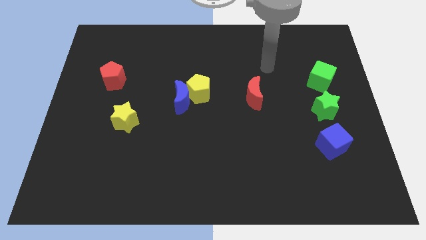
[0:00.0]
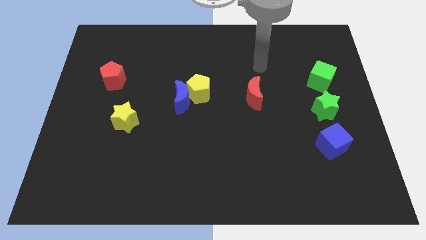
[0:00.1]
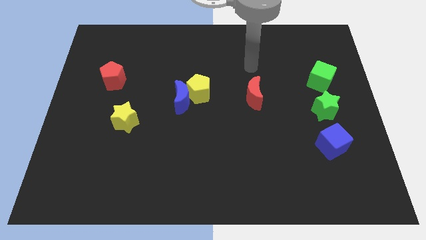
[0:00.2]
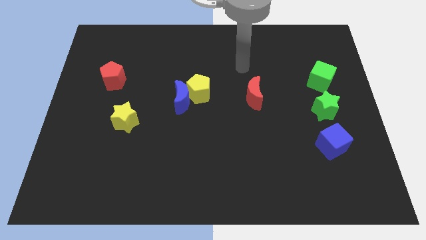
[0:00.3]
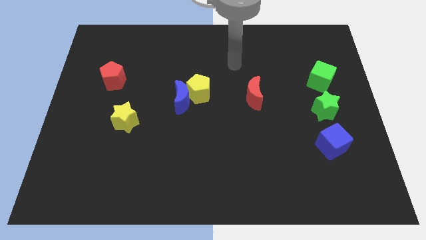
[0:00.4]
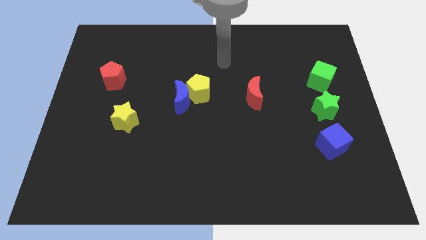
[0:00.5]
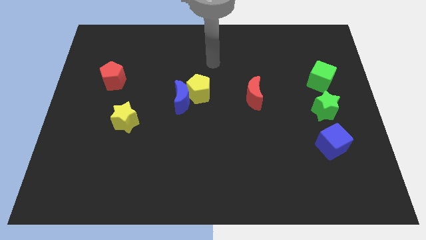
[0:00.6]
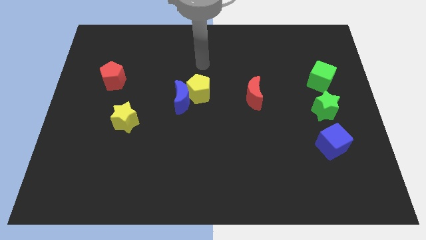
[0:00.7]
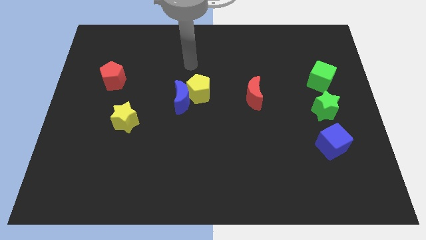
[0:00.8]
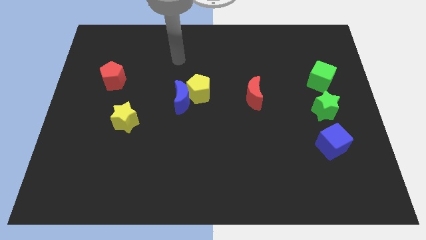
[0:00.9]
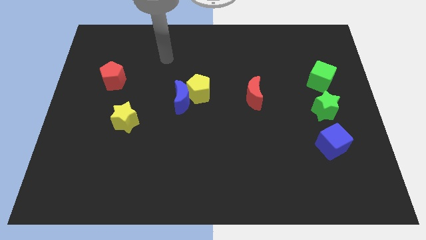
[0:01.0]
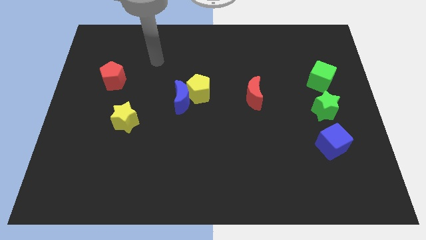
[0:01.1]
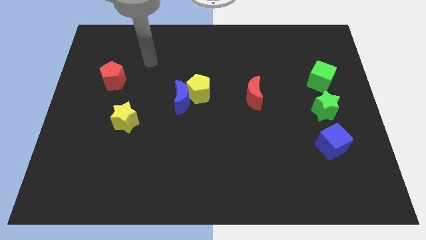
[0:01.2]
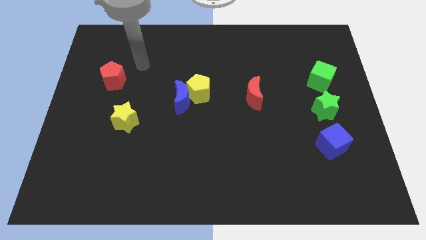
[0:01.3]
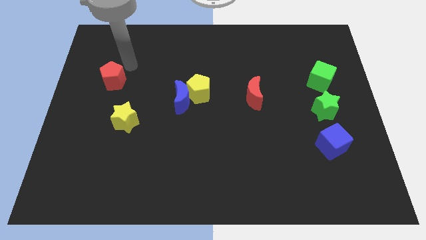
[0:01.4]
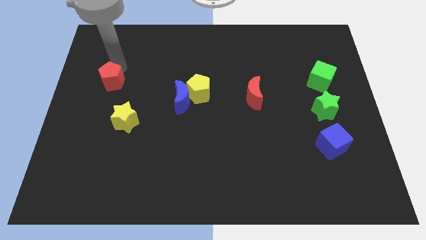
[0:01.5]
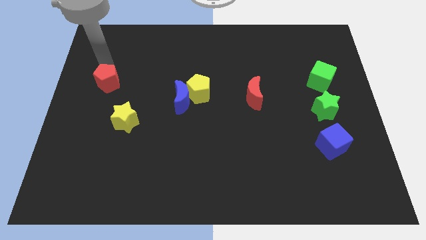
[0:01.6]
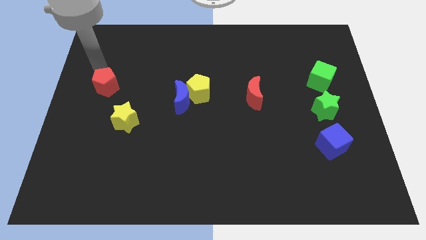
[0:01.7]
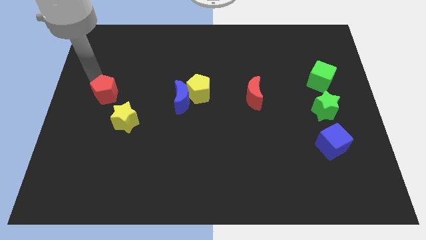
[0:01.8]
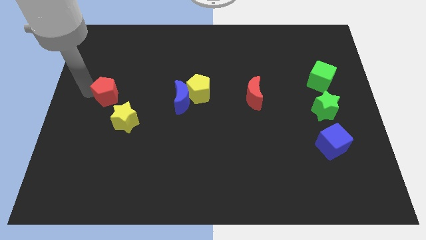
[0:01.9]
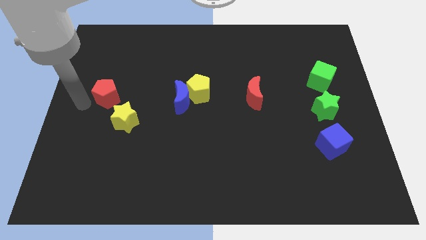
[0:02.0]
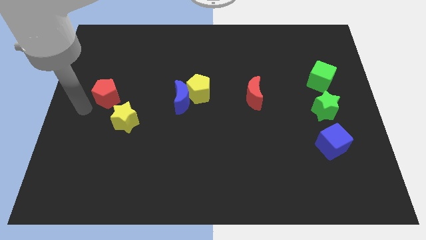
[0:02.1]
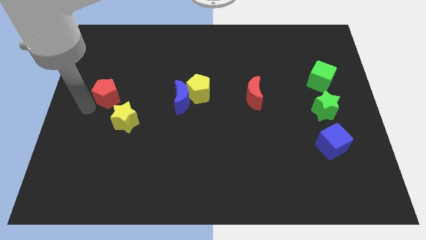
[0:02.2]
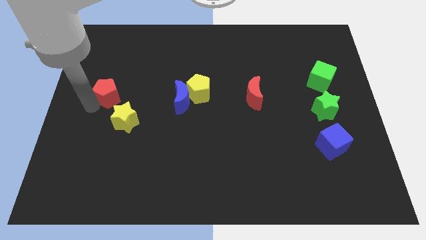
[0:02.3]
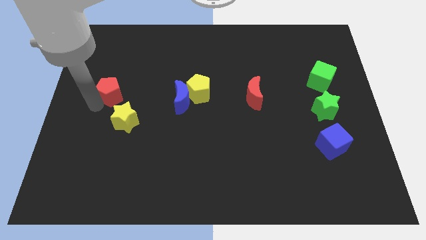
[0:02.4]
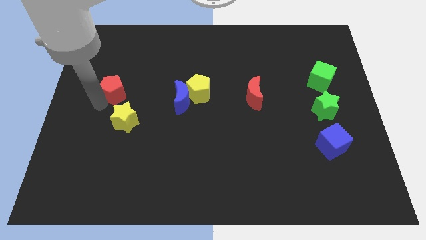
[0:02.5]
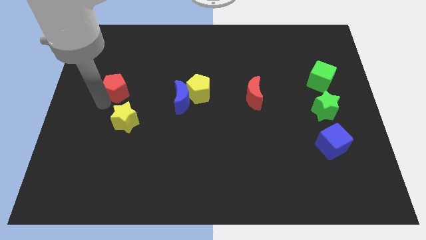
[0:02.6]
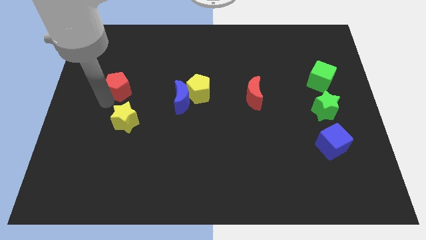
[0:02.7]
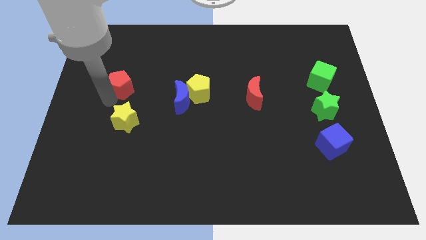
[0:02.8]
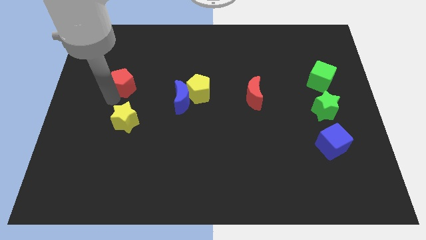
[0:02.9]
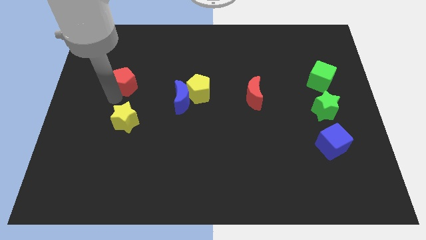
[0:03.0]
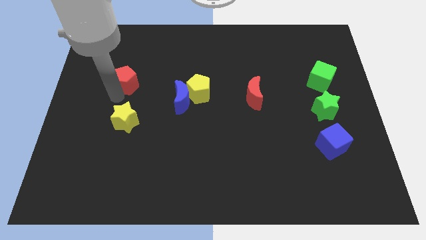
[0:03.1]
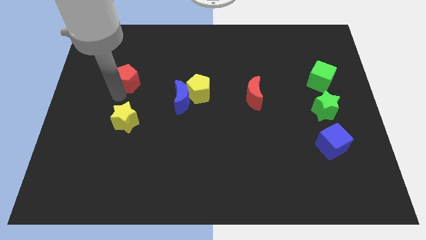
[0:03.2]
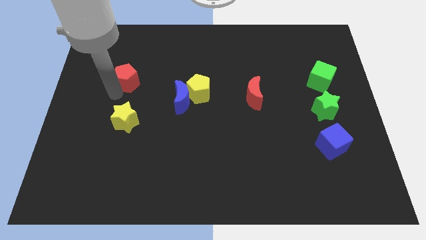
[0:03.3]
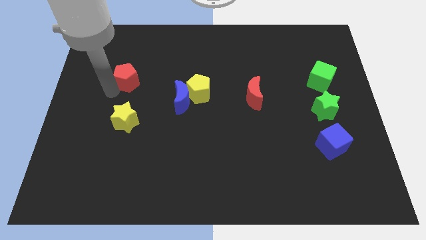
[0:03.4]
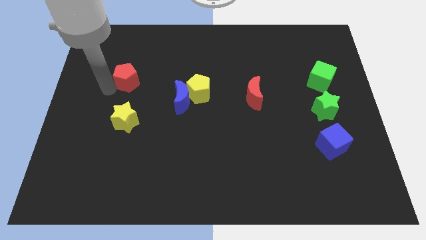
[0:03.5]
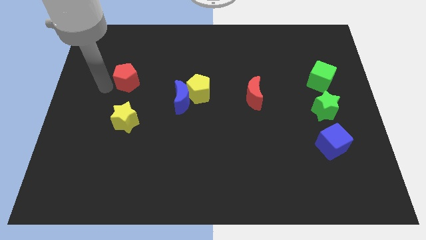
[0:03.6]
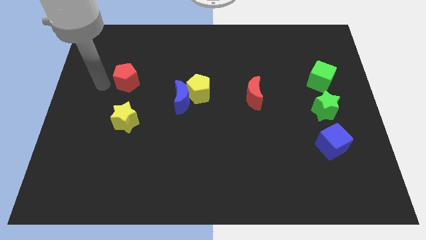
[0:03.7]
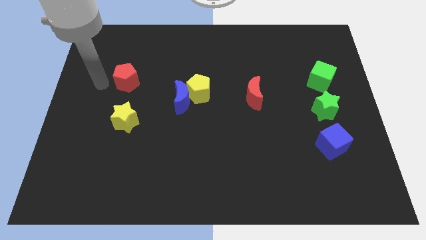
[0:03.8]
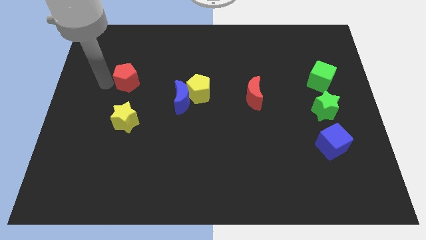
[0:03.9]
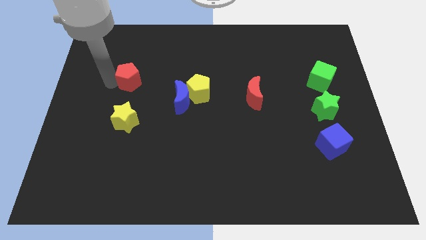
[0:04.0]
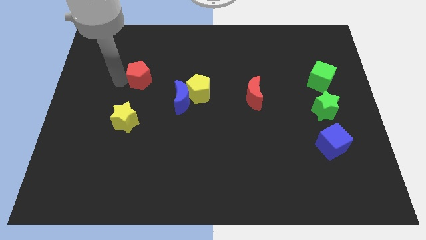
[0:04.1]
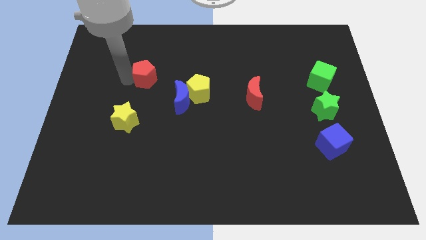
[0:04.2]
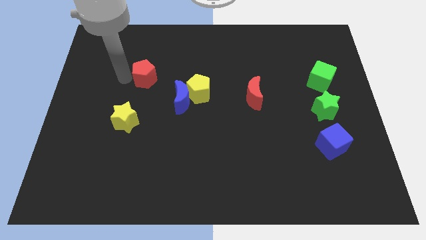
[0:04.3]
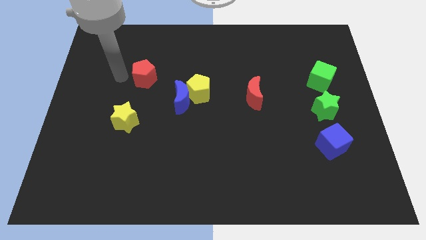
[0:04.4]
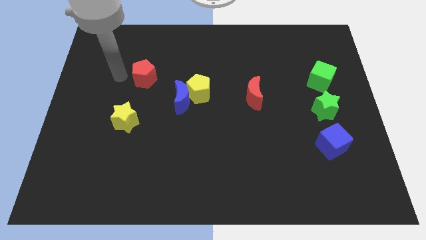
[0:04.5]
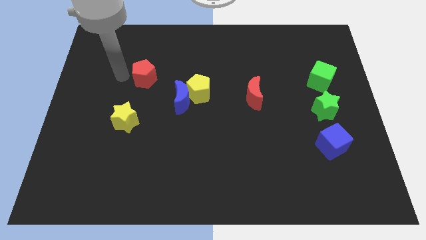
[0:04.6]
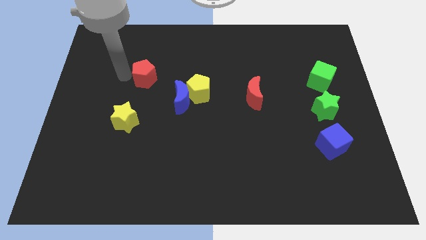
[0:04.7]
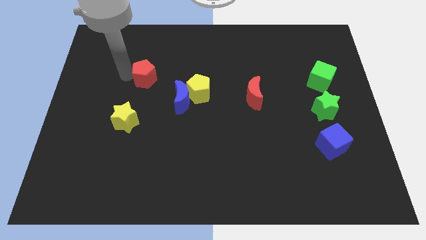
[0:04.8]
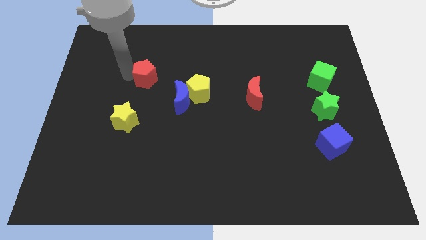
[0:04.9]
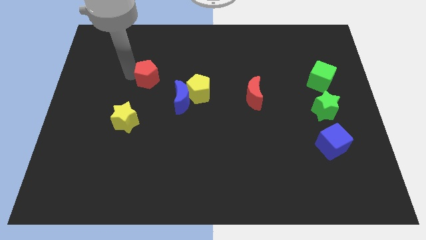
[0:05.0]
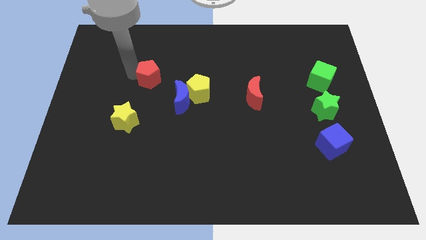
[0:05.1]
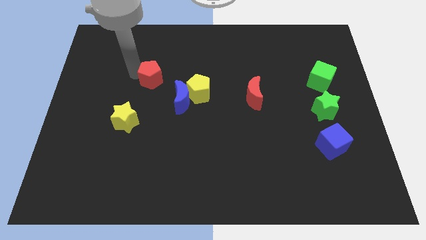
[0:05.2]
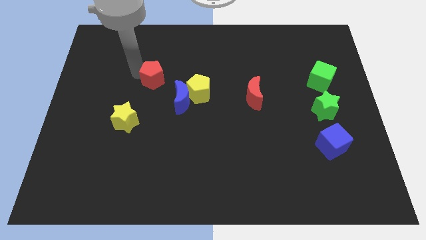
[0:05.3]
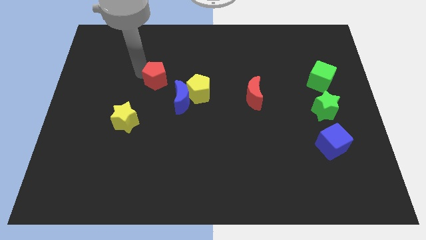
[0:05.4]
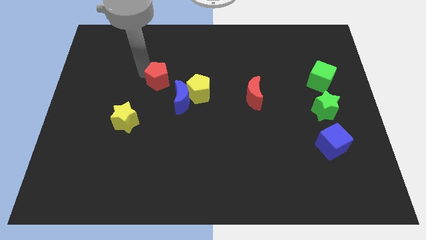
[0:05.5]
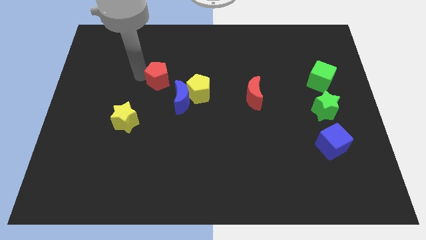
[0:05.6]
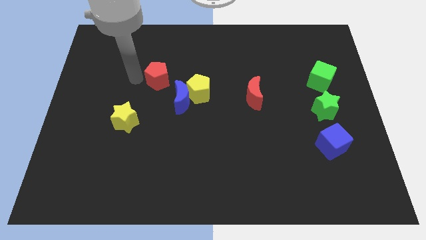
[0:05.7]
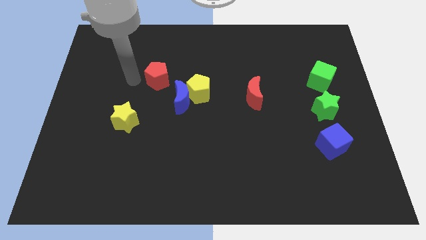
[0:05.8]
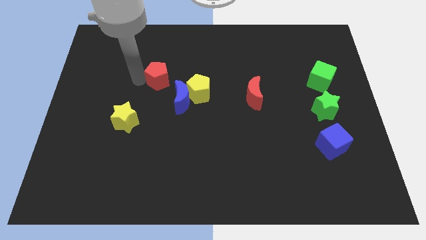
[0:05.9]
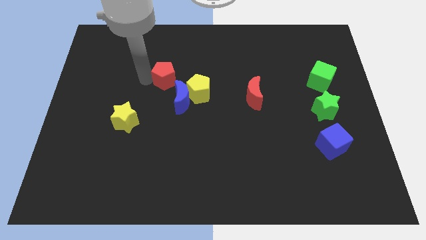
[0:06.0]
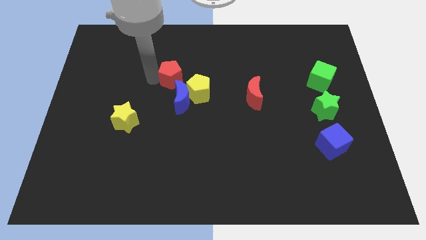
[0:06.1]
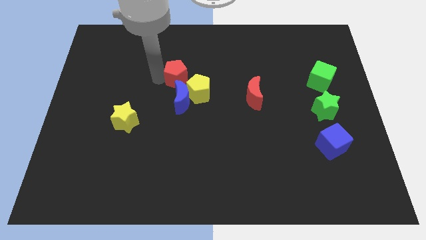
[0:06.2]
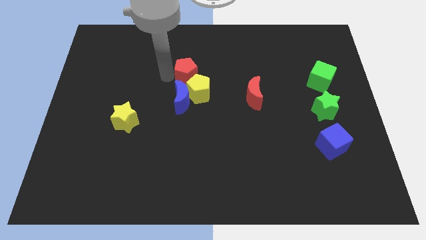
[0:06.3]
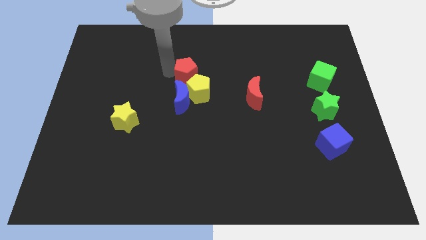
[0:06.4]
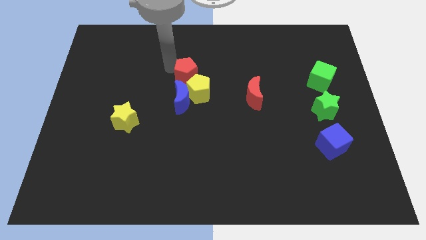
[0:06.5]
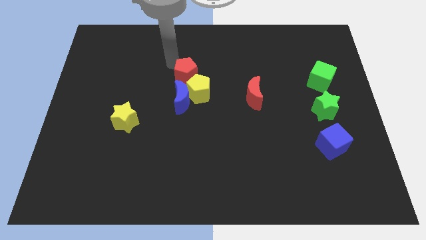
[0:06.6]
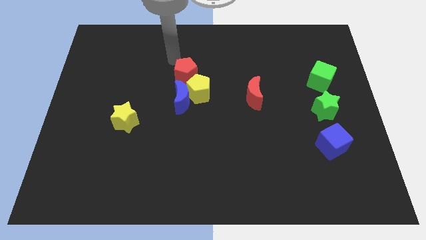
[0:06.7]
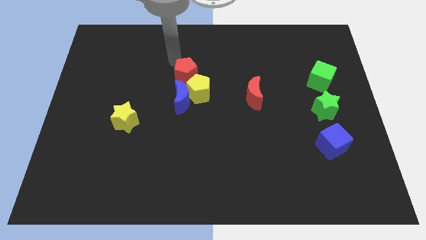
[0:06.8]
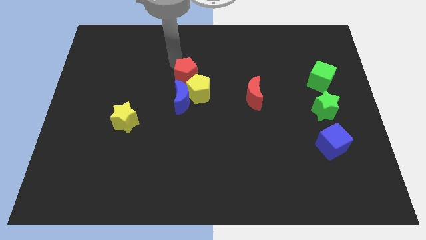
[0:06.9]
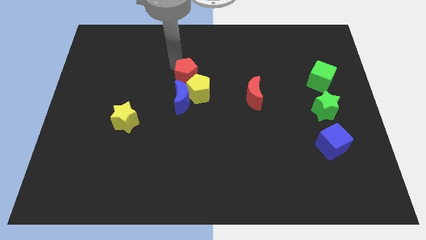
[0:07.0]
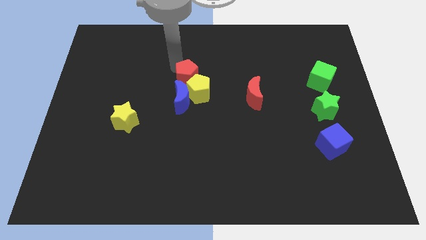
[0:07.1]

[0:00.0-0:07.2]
put the red pentagon next to the yellow pentagon
